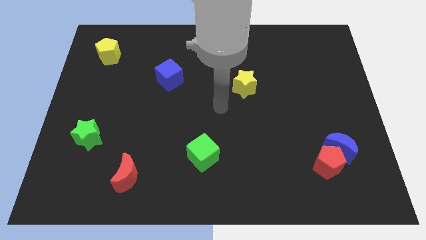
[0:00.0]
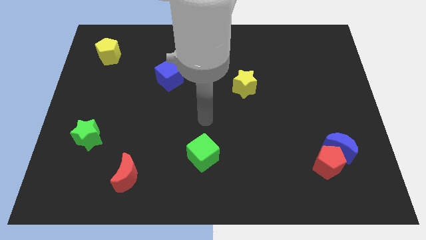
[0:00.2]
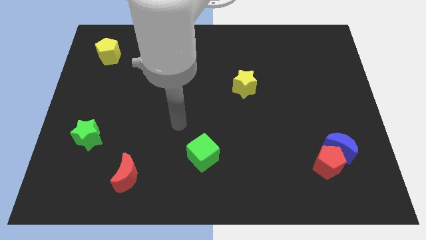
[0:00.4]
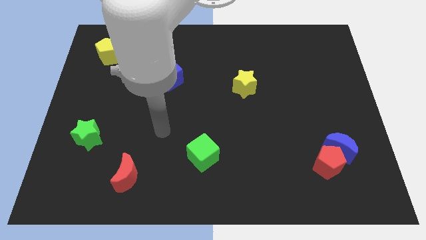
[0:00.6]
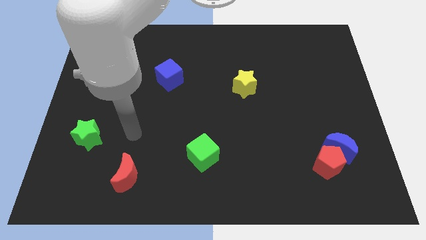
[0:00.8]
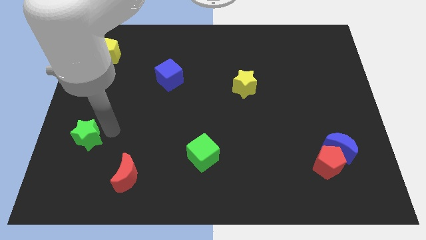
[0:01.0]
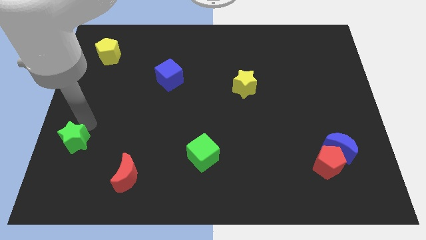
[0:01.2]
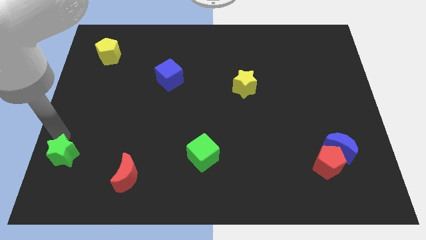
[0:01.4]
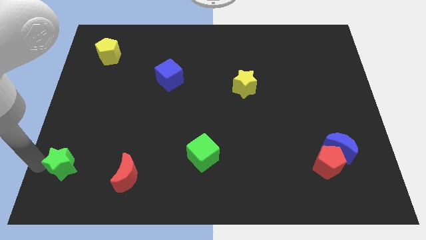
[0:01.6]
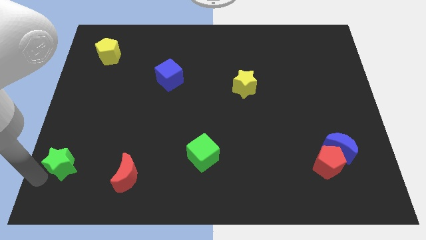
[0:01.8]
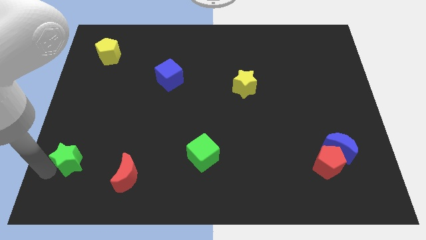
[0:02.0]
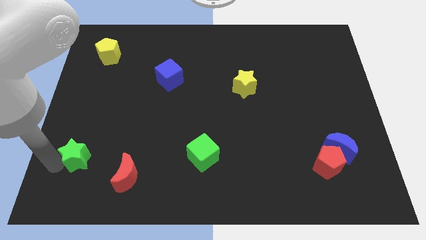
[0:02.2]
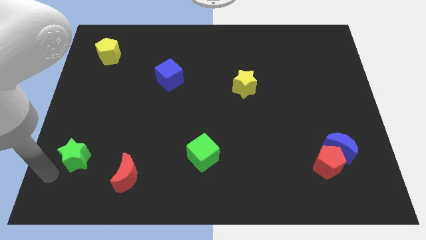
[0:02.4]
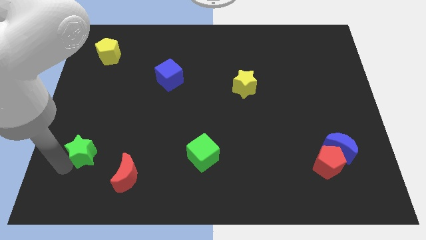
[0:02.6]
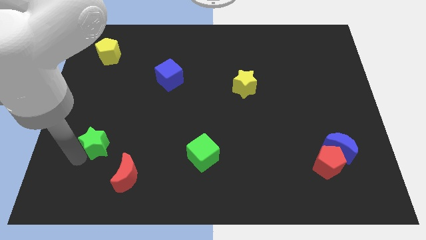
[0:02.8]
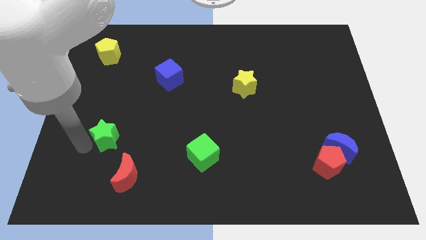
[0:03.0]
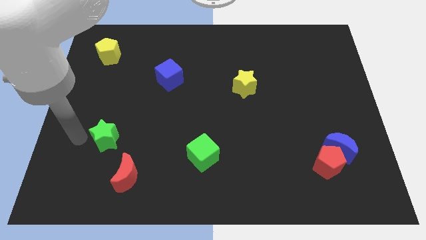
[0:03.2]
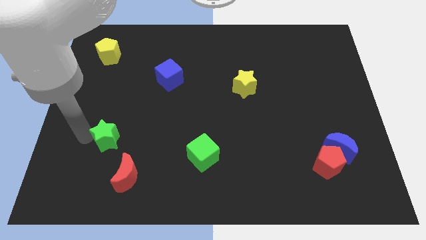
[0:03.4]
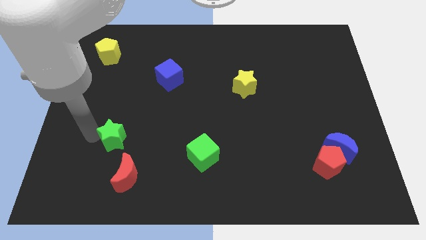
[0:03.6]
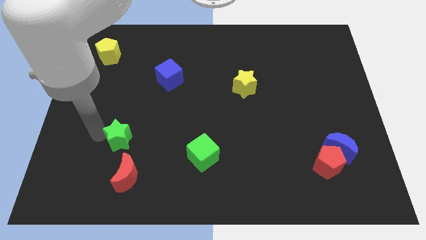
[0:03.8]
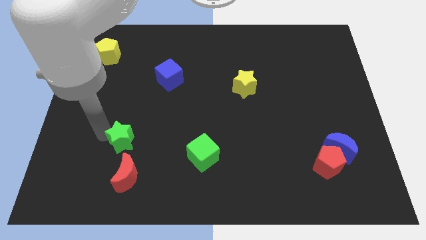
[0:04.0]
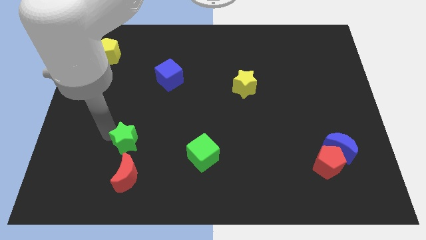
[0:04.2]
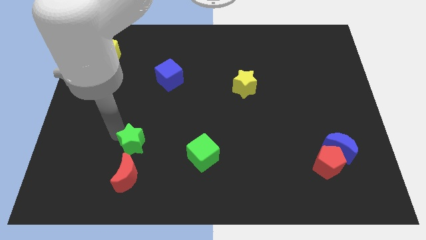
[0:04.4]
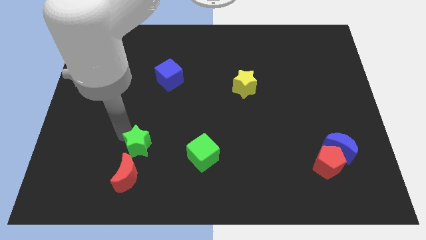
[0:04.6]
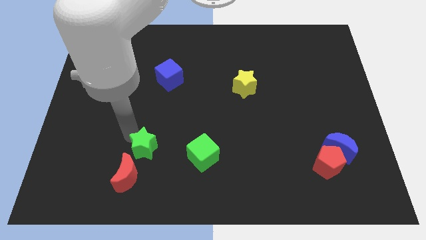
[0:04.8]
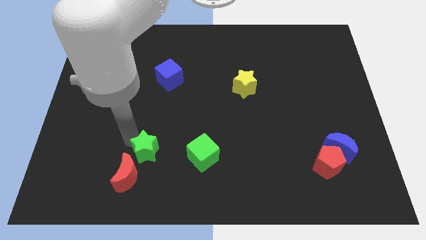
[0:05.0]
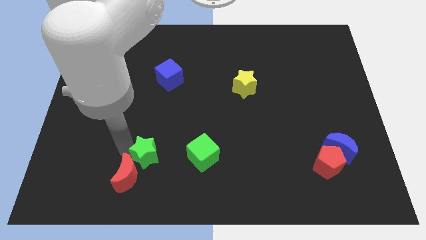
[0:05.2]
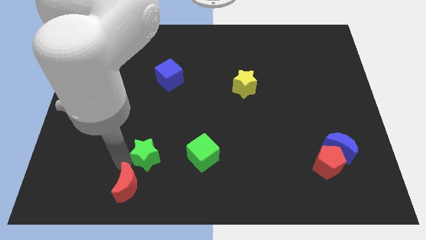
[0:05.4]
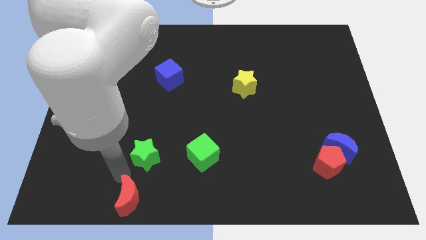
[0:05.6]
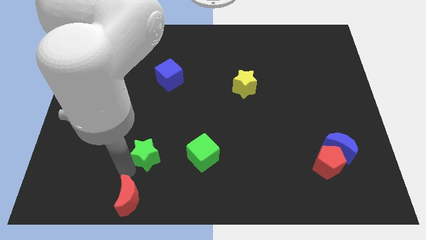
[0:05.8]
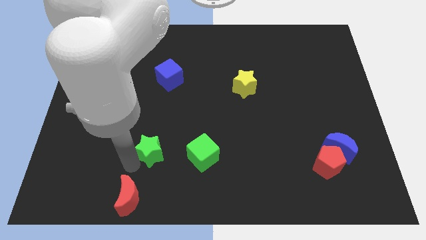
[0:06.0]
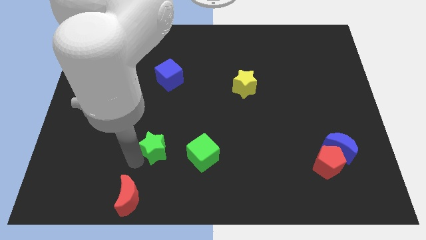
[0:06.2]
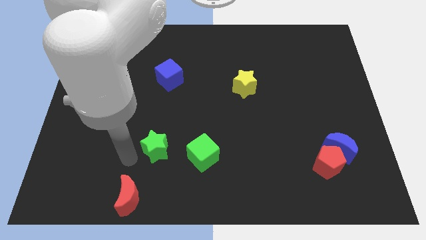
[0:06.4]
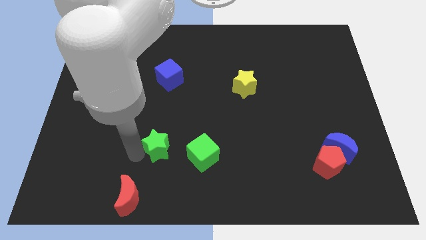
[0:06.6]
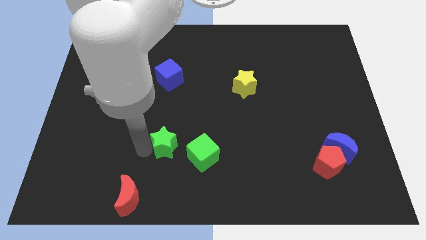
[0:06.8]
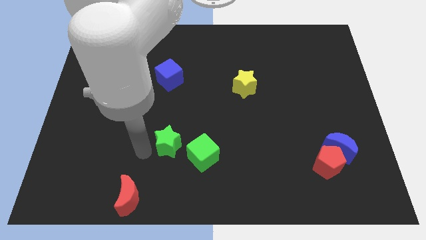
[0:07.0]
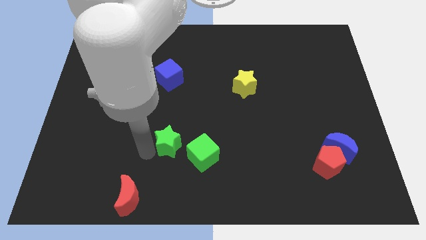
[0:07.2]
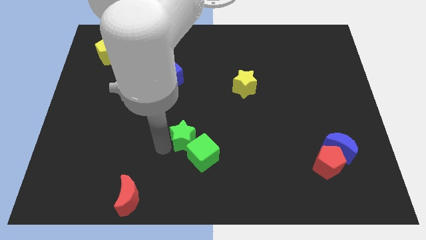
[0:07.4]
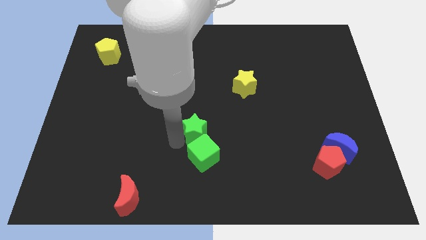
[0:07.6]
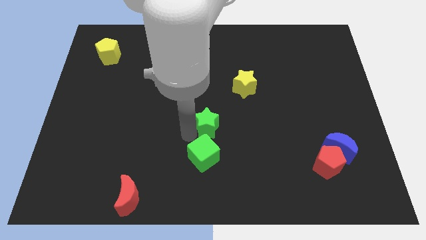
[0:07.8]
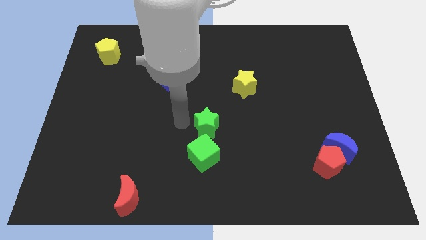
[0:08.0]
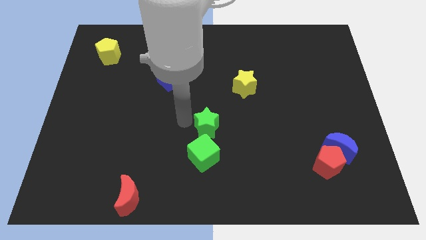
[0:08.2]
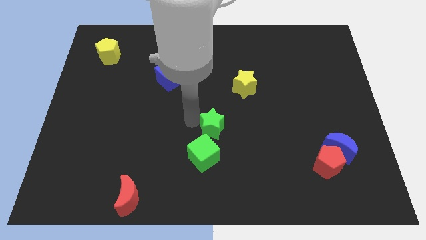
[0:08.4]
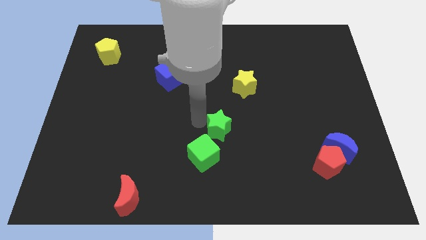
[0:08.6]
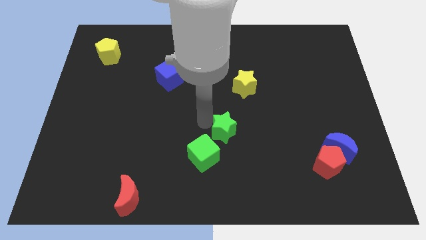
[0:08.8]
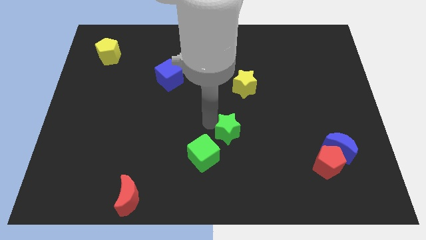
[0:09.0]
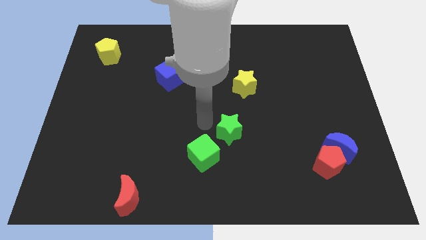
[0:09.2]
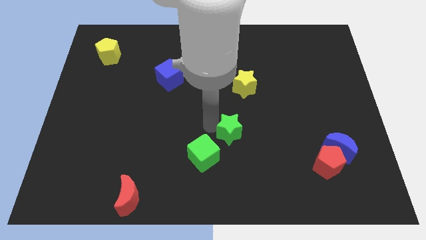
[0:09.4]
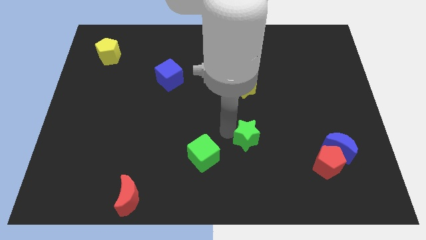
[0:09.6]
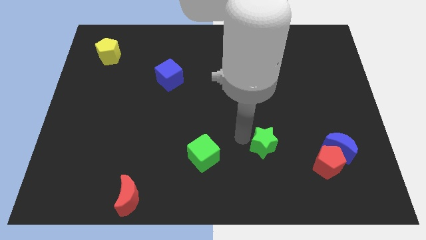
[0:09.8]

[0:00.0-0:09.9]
slide the green star just left of the blue moon

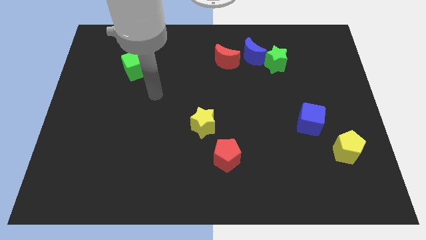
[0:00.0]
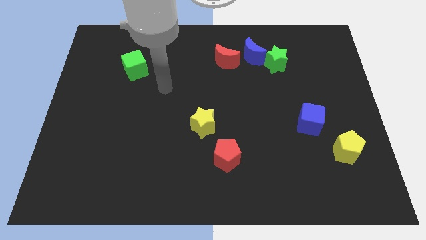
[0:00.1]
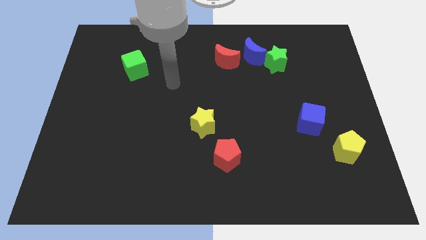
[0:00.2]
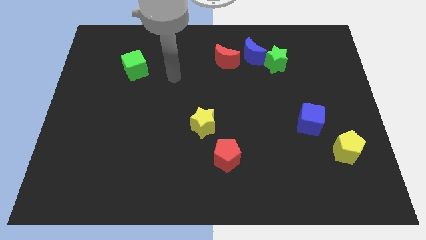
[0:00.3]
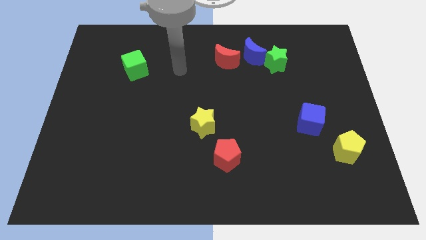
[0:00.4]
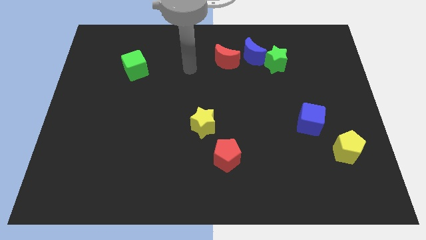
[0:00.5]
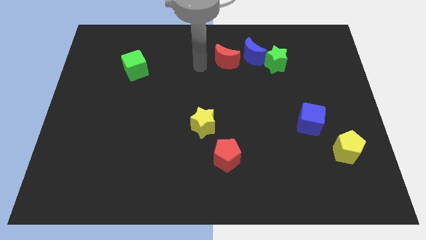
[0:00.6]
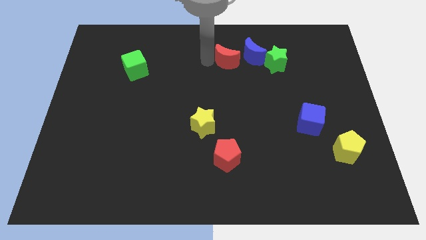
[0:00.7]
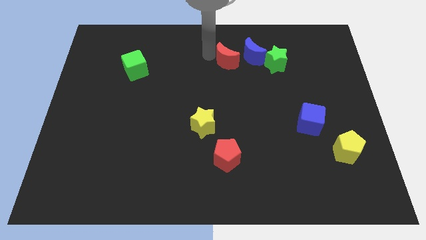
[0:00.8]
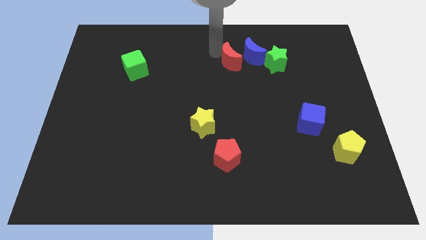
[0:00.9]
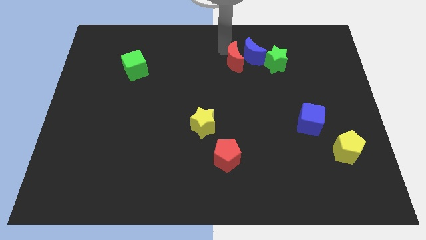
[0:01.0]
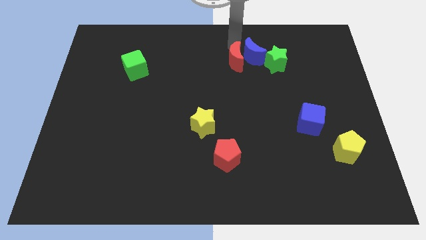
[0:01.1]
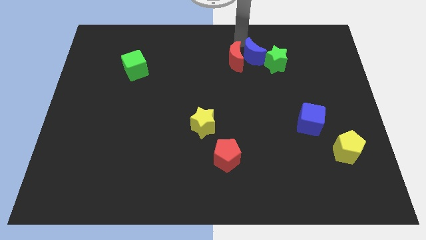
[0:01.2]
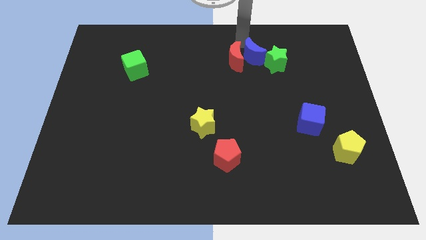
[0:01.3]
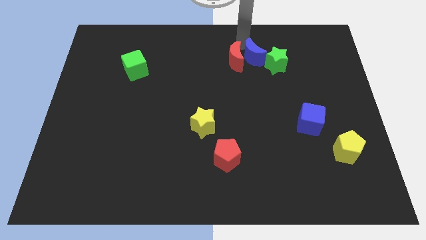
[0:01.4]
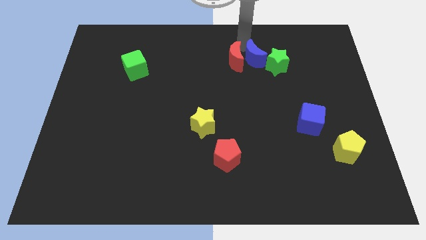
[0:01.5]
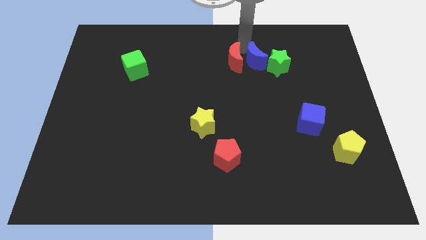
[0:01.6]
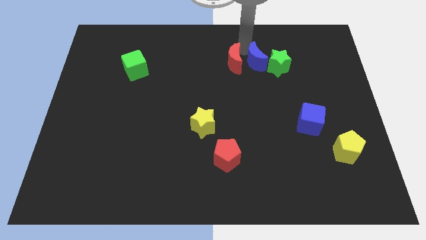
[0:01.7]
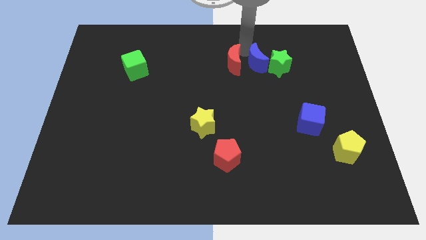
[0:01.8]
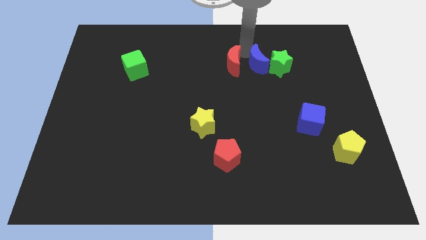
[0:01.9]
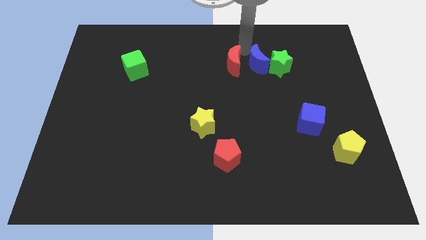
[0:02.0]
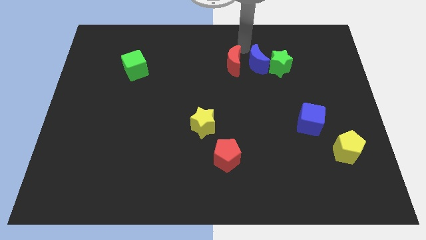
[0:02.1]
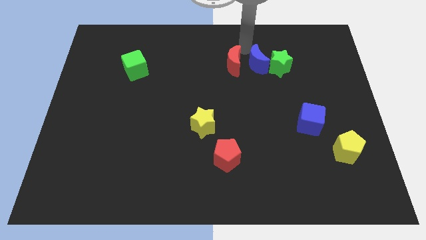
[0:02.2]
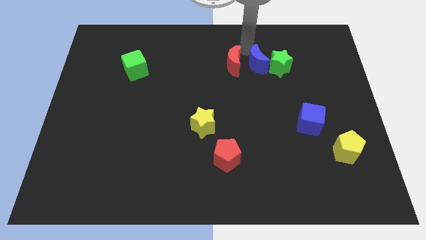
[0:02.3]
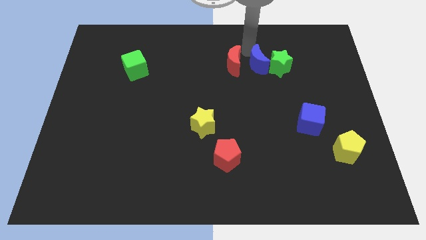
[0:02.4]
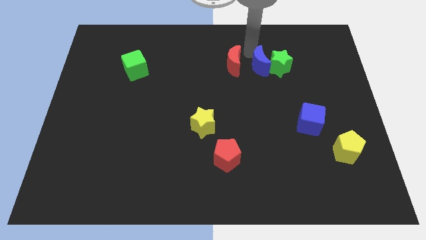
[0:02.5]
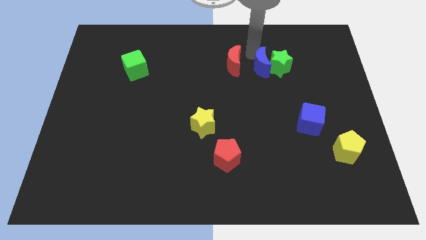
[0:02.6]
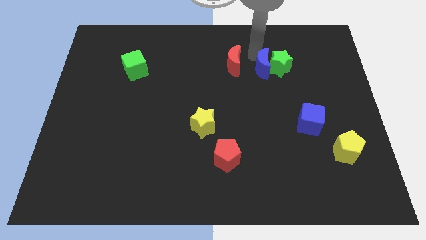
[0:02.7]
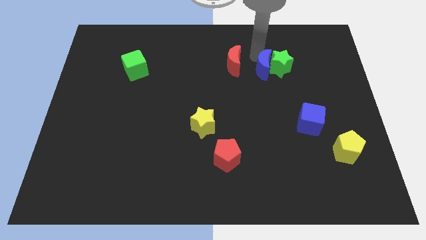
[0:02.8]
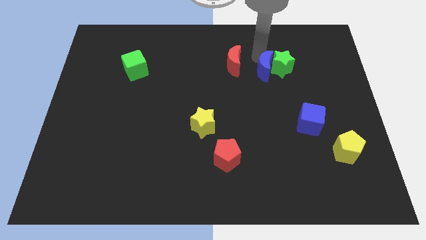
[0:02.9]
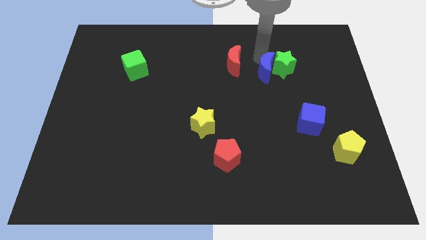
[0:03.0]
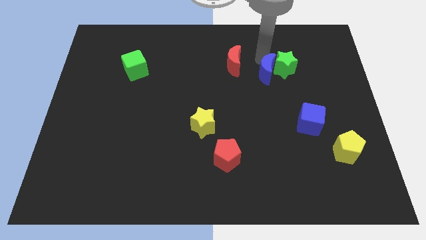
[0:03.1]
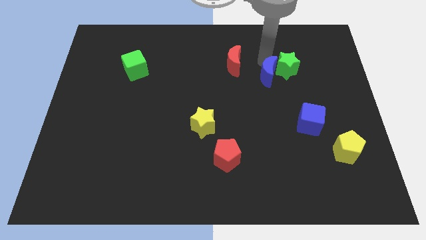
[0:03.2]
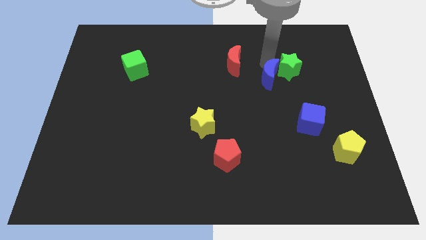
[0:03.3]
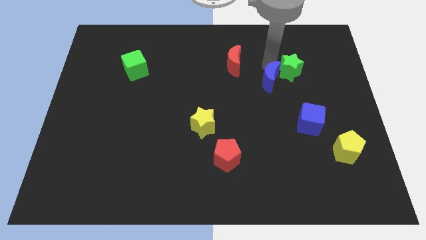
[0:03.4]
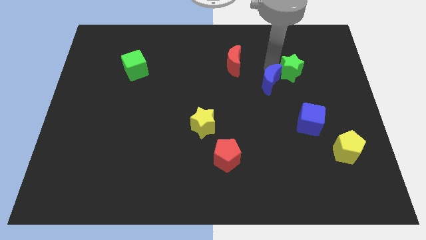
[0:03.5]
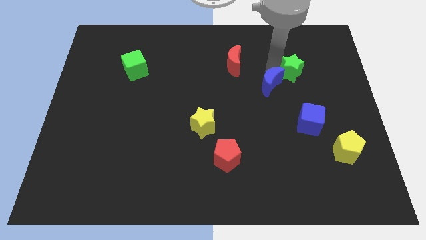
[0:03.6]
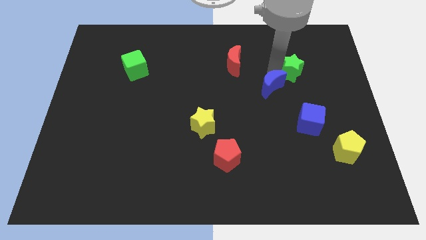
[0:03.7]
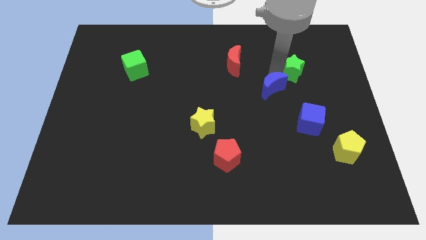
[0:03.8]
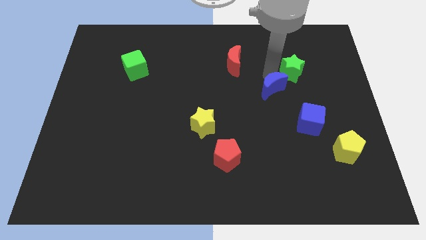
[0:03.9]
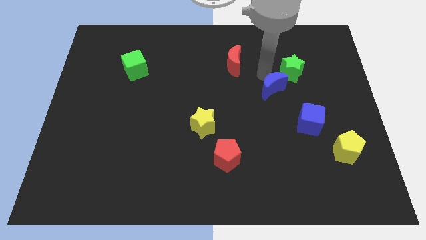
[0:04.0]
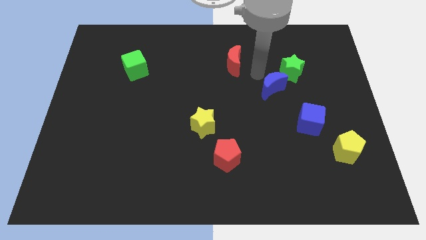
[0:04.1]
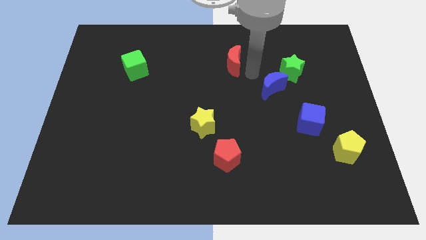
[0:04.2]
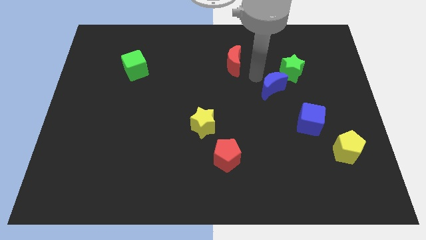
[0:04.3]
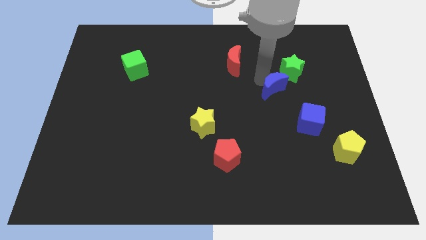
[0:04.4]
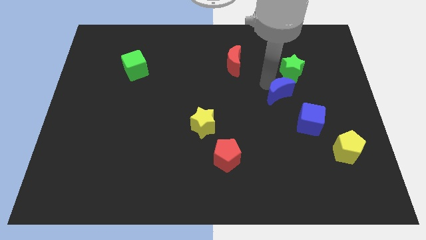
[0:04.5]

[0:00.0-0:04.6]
put the blue moon below the green star
